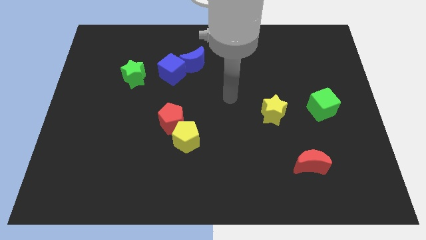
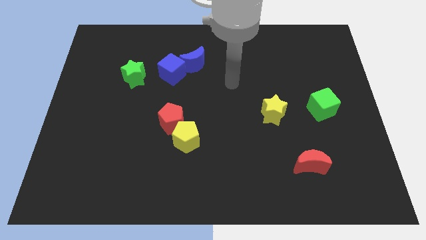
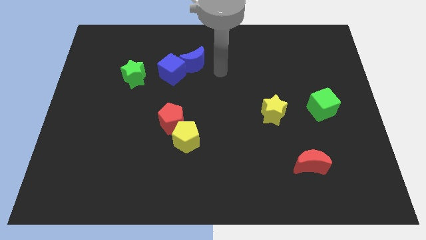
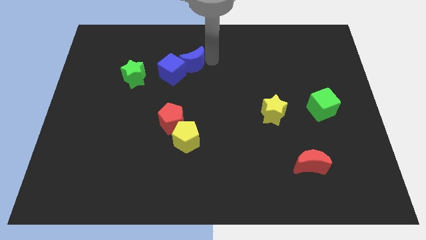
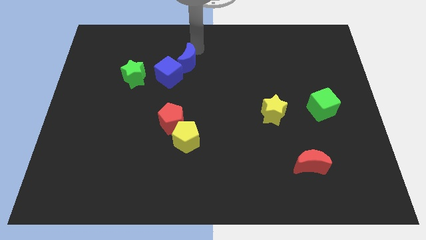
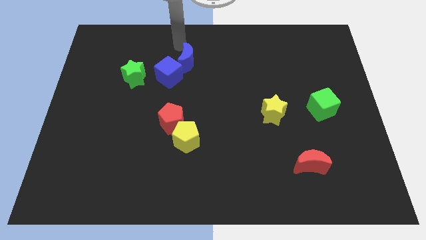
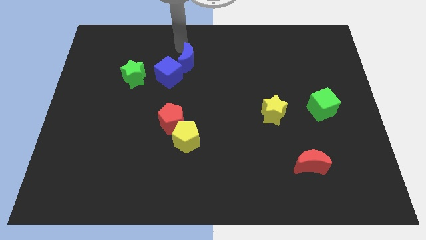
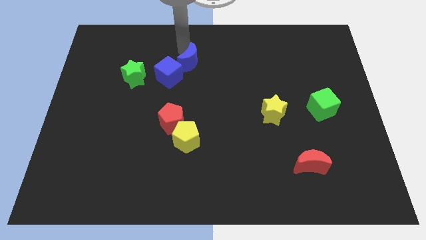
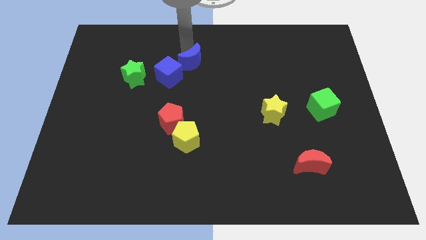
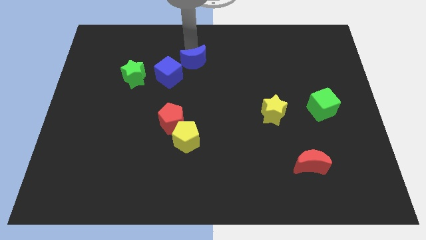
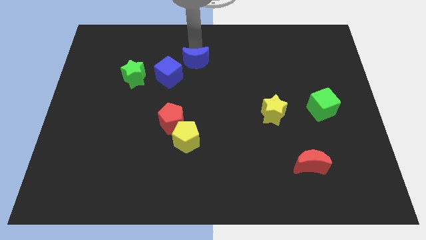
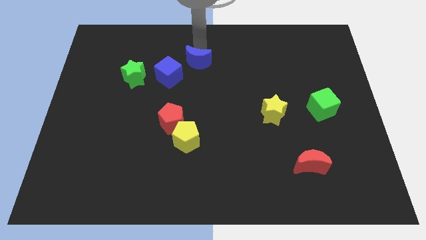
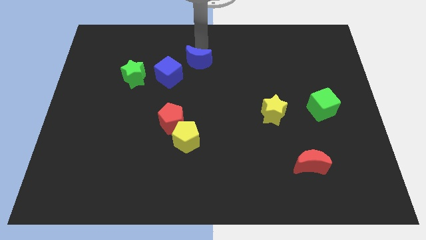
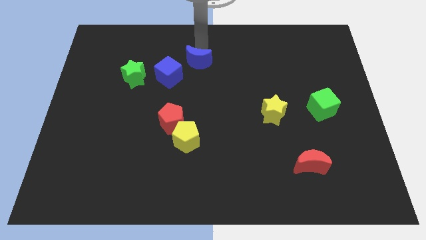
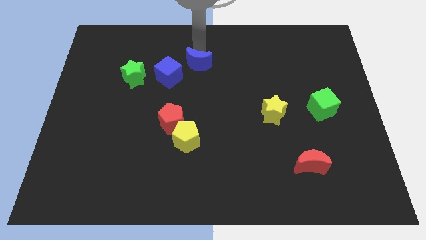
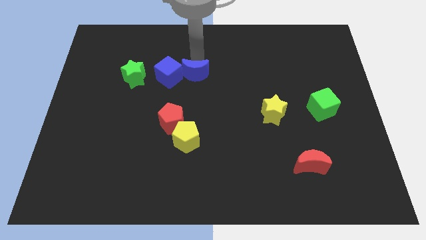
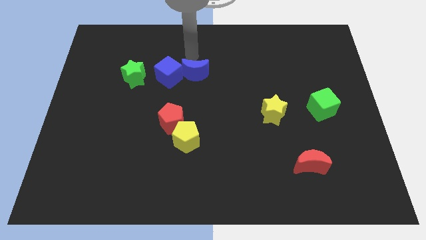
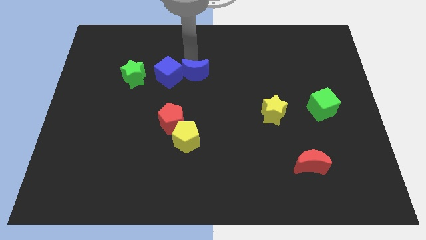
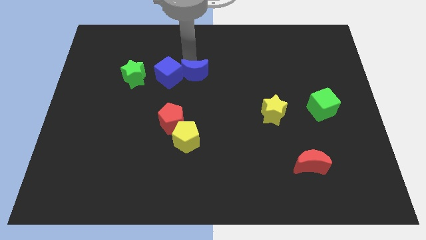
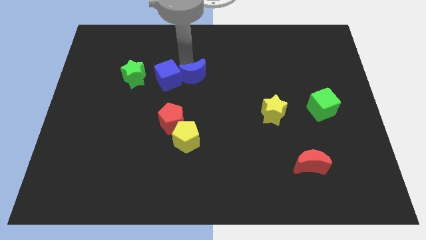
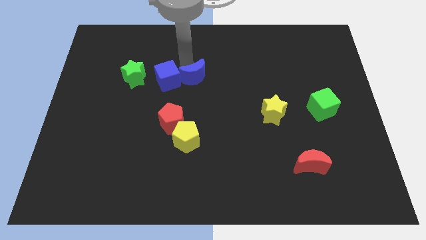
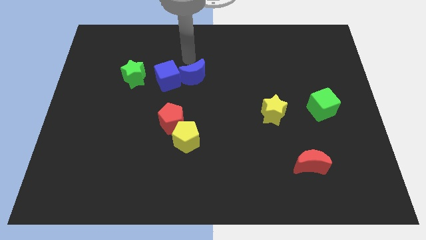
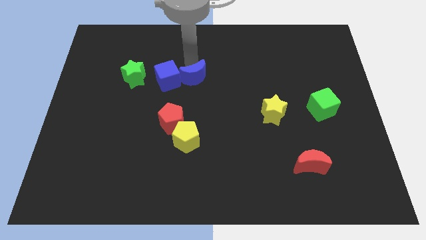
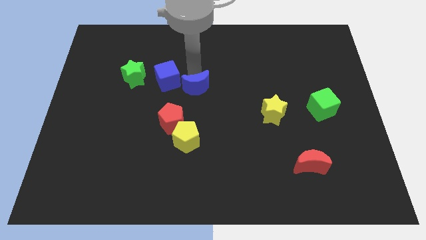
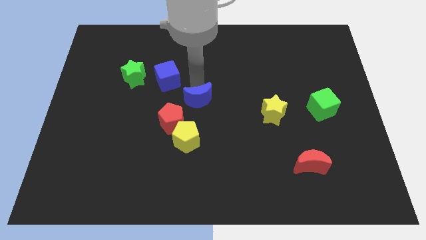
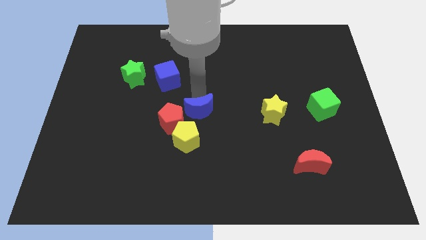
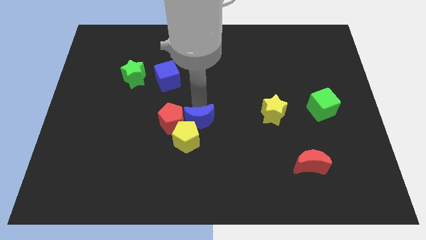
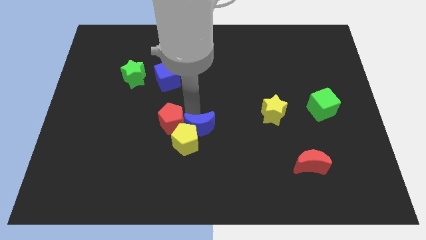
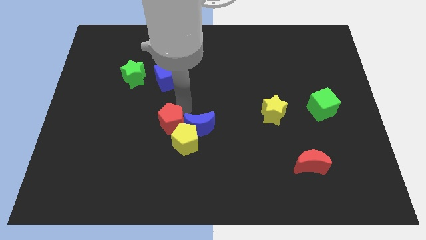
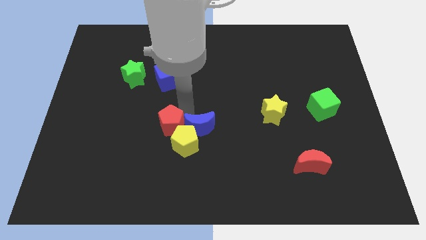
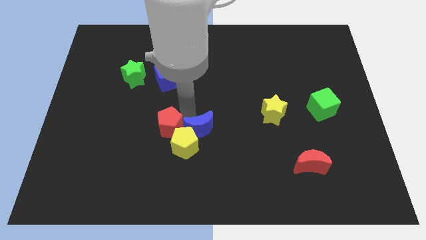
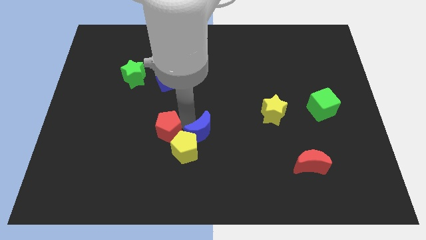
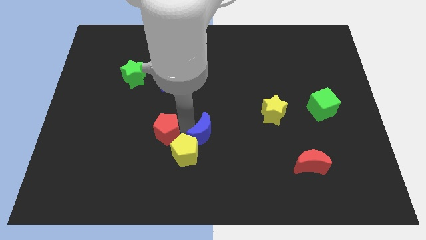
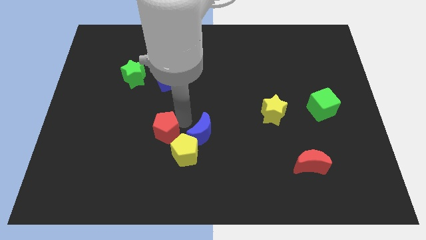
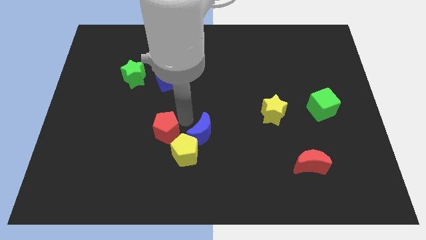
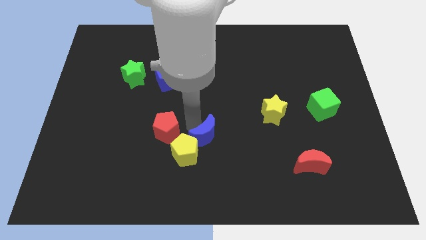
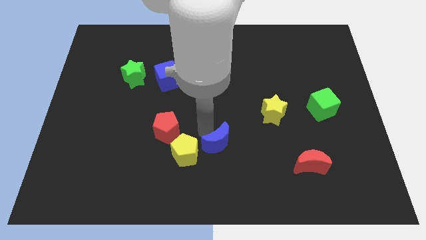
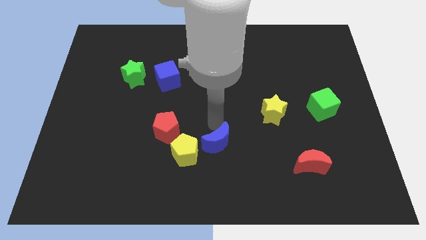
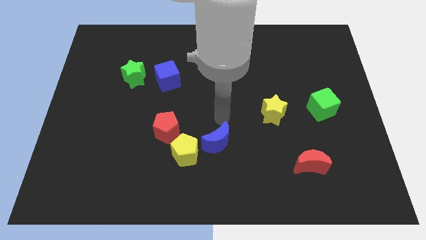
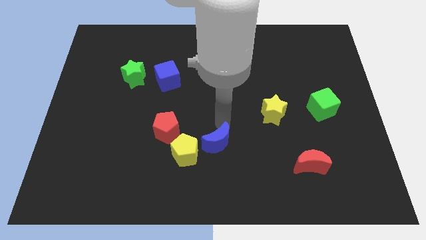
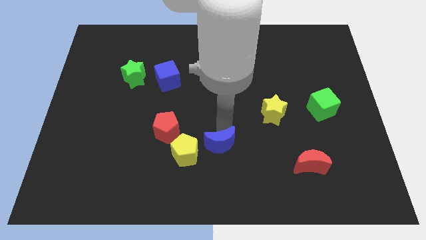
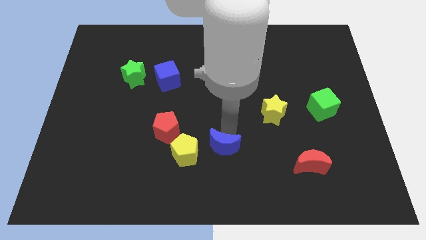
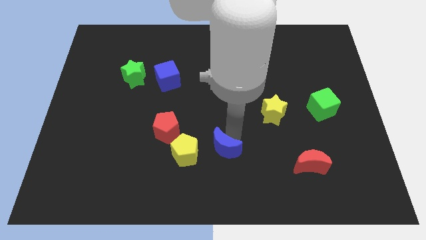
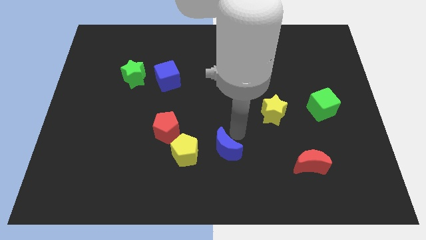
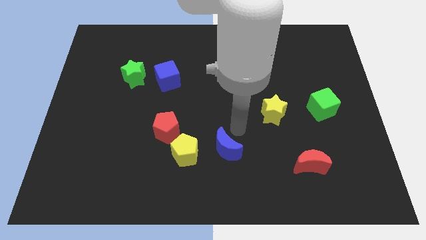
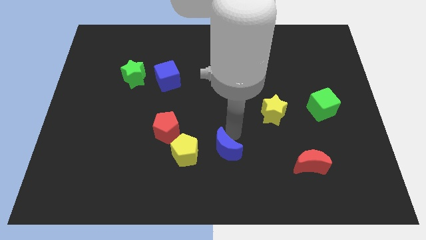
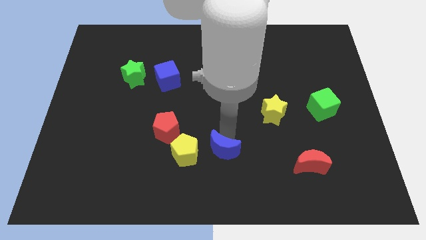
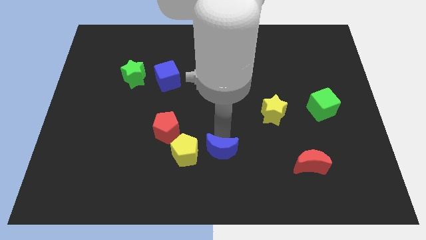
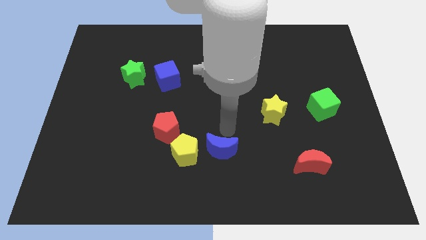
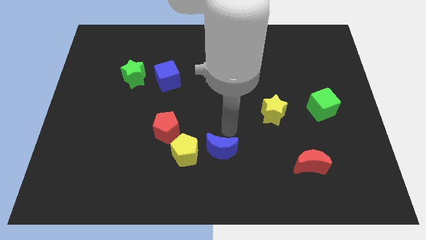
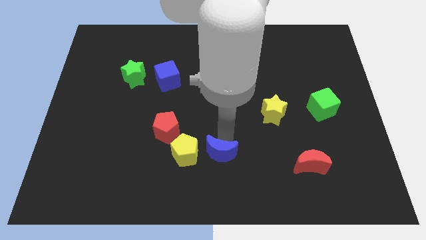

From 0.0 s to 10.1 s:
push the blue moon to the bottom

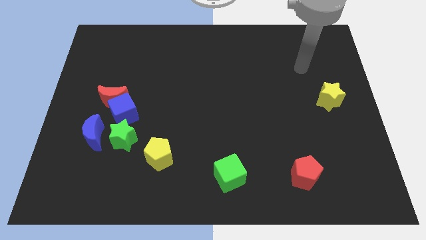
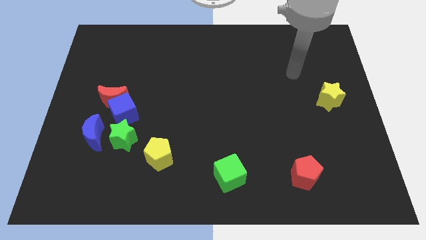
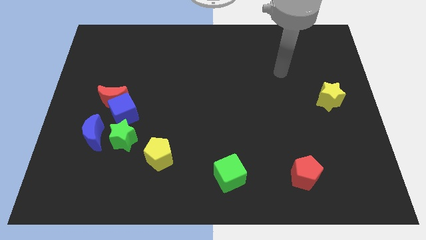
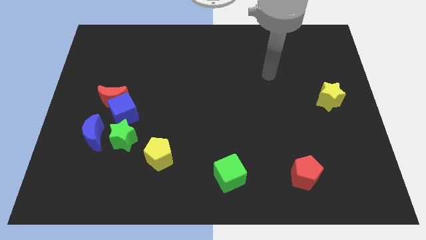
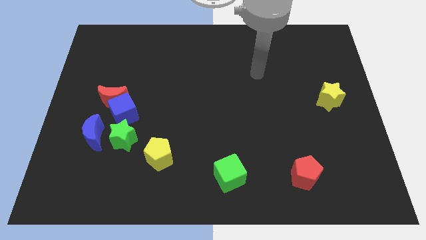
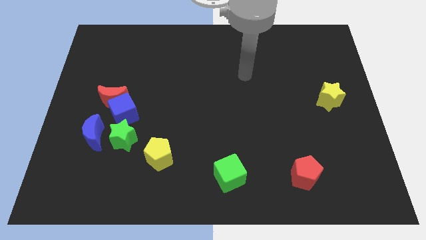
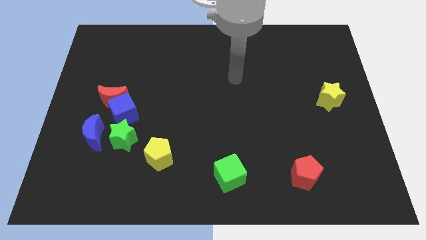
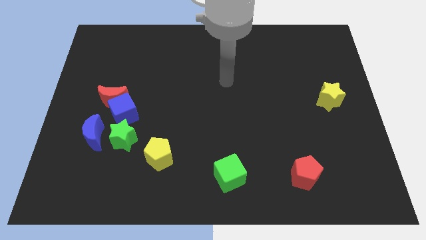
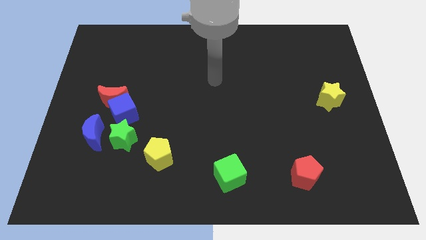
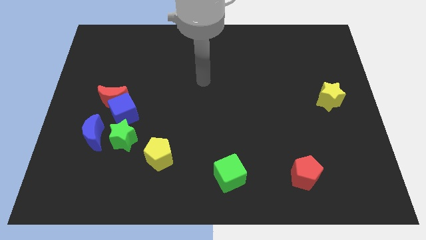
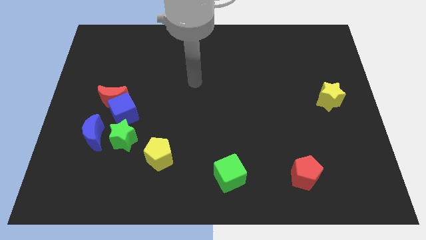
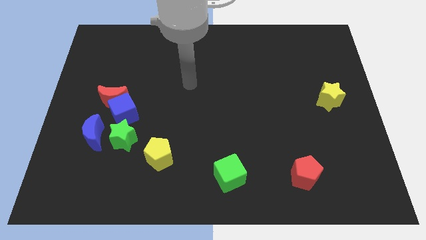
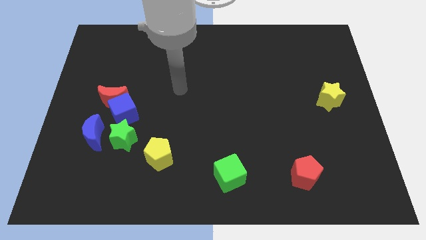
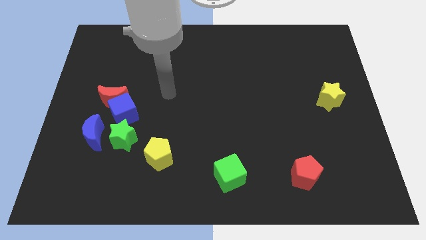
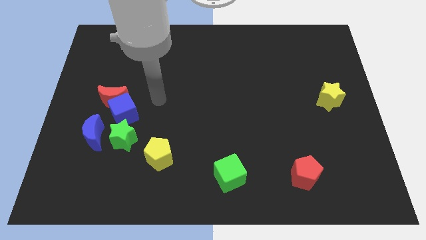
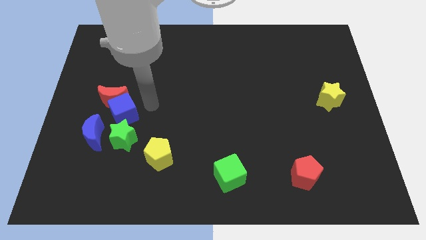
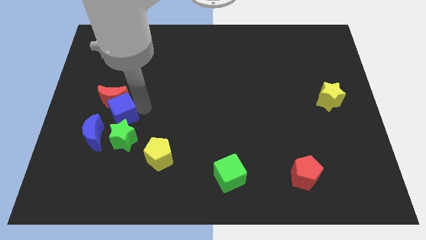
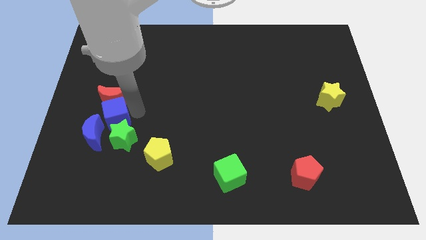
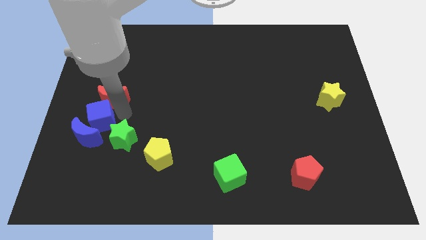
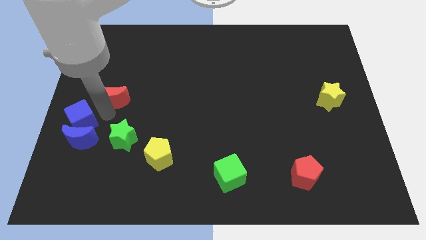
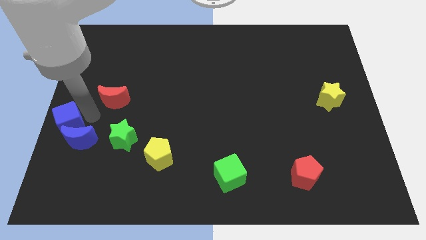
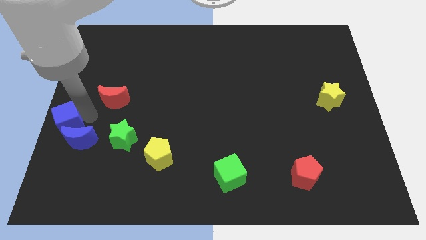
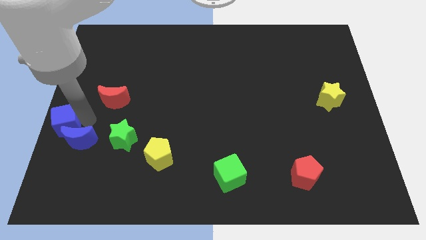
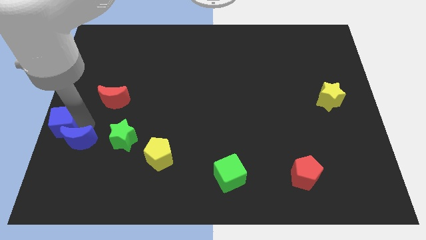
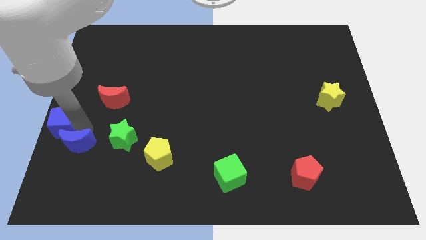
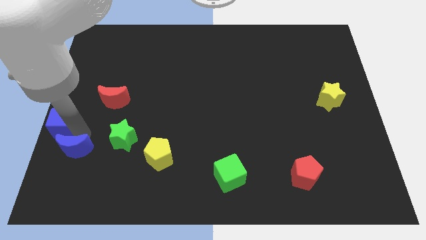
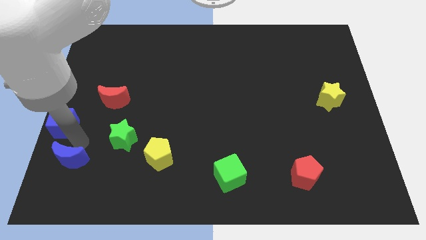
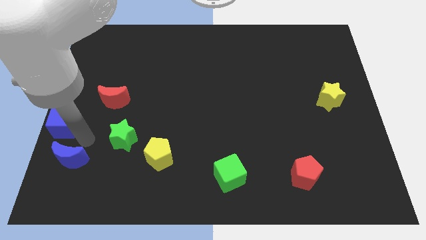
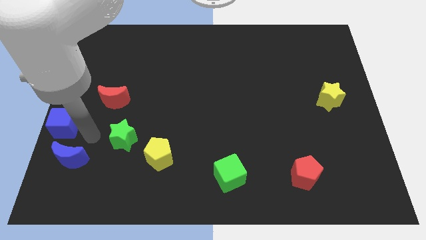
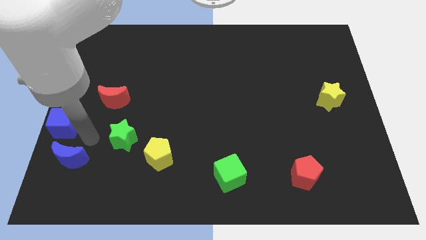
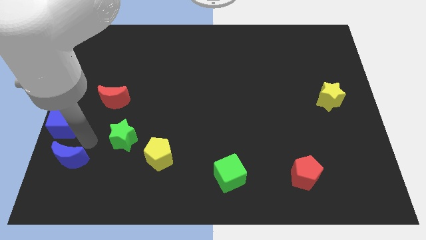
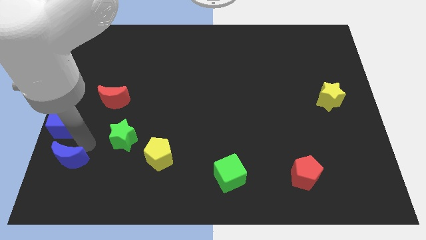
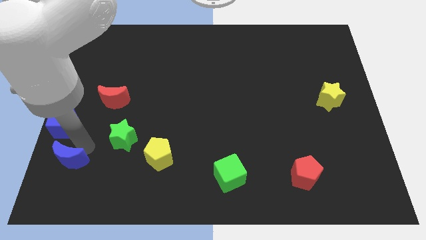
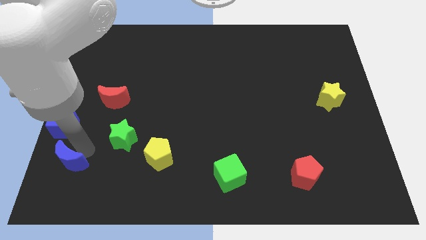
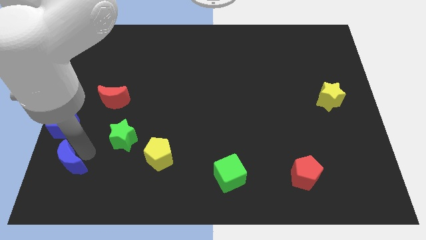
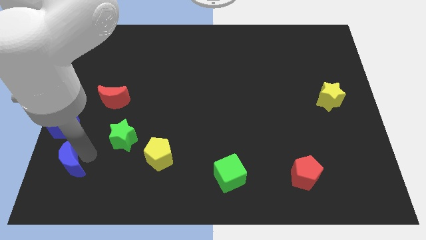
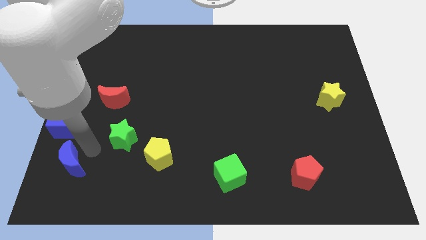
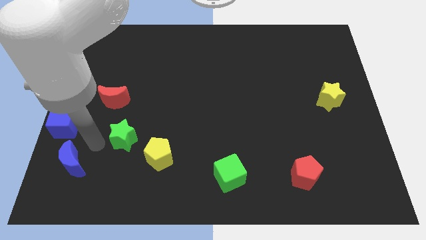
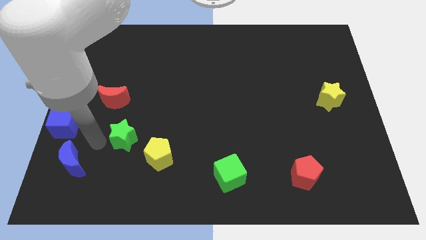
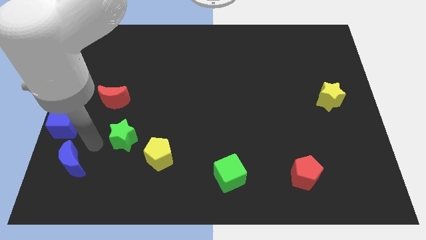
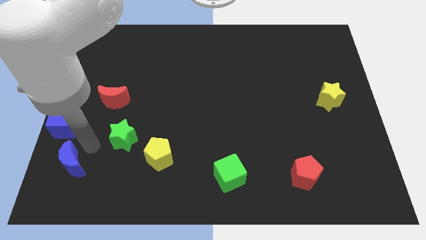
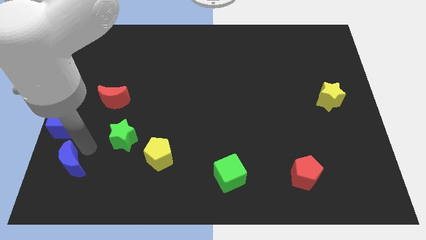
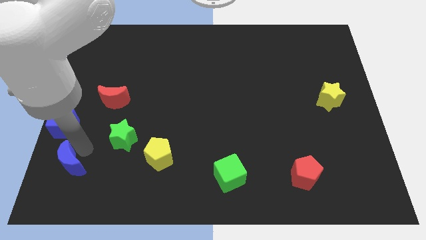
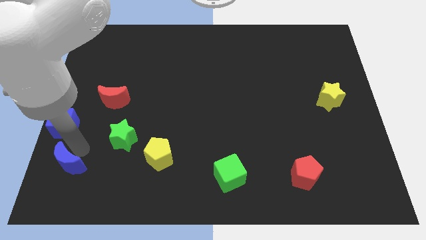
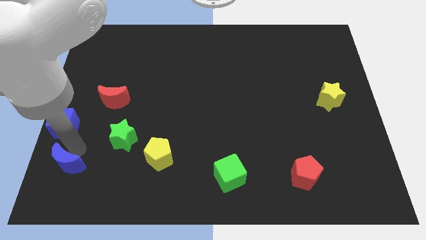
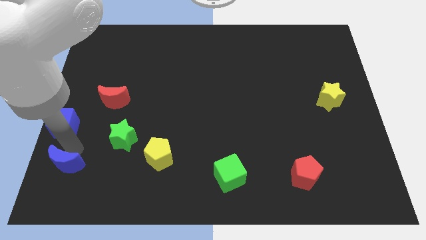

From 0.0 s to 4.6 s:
slide the blue moon to the bottom left of the board
